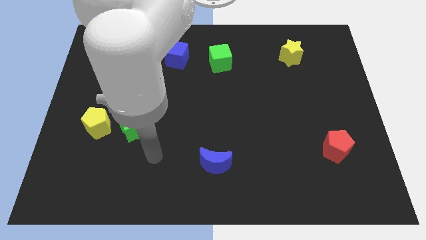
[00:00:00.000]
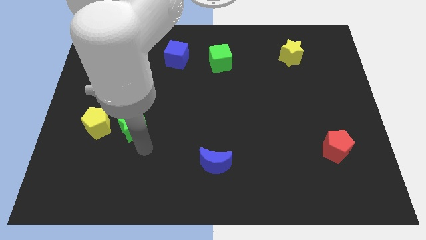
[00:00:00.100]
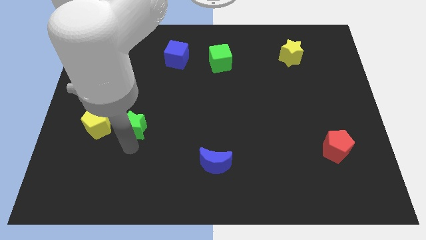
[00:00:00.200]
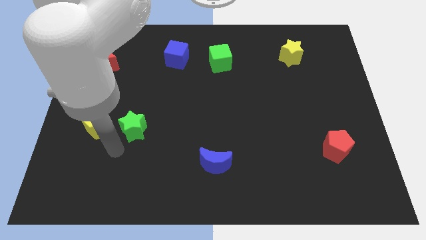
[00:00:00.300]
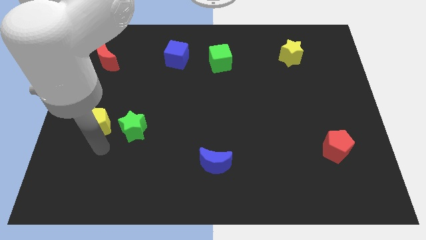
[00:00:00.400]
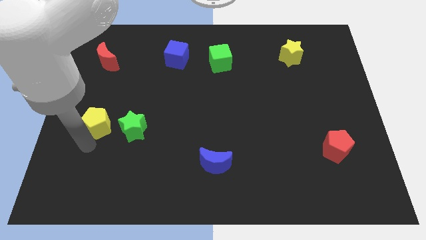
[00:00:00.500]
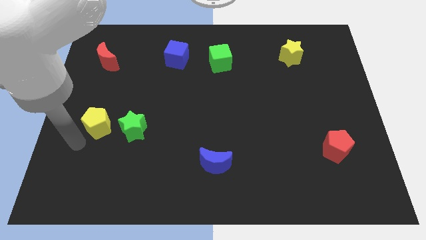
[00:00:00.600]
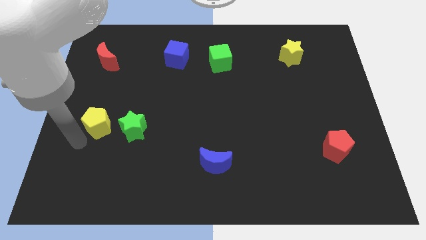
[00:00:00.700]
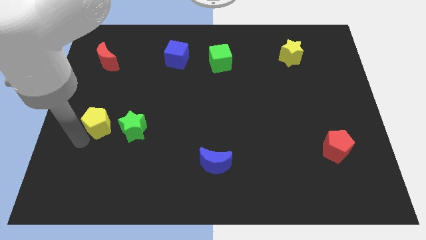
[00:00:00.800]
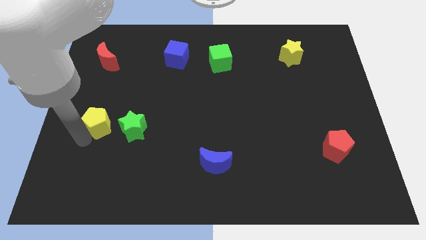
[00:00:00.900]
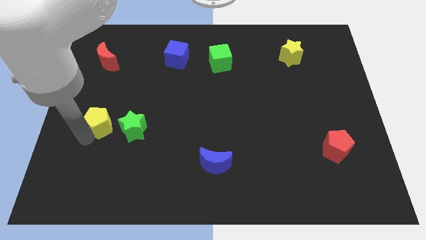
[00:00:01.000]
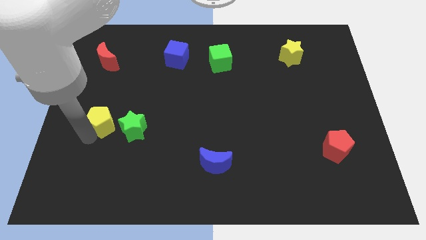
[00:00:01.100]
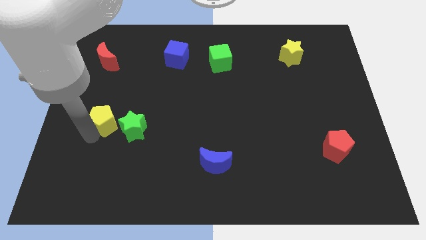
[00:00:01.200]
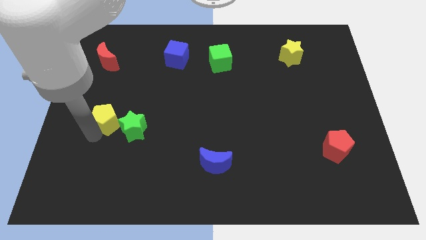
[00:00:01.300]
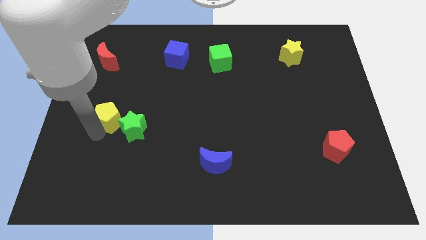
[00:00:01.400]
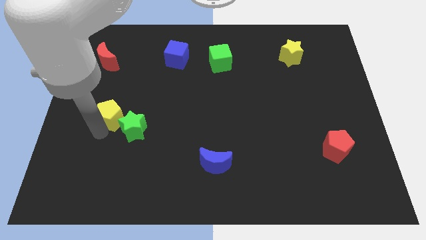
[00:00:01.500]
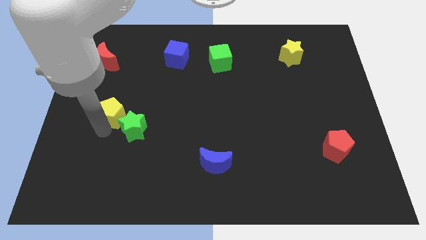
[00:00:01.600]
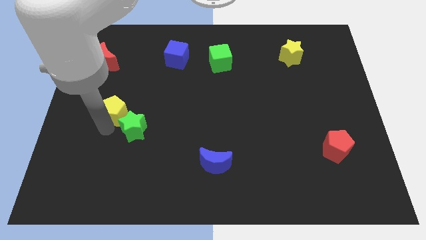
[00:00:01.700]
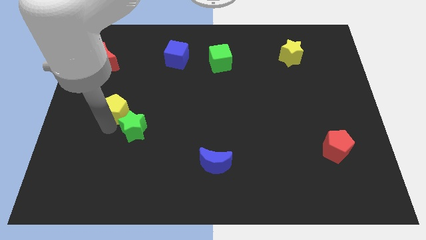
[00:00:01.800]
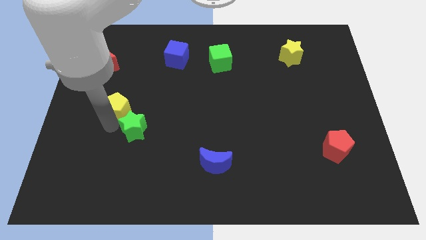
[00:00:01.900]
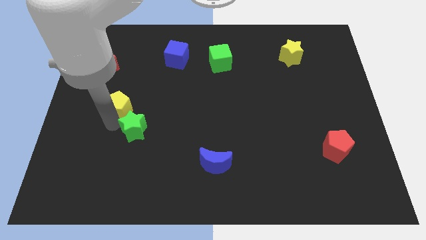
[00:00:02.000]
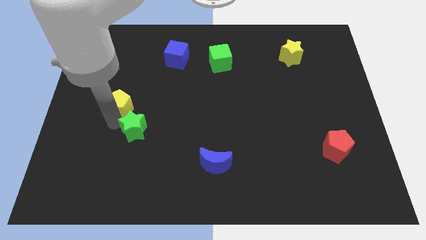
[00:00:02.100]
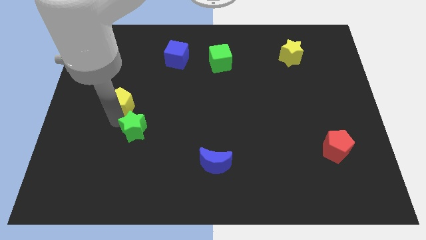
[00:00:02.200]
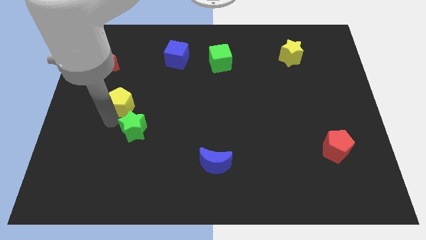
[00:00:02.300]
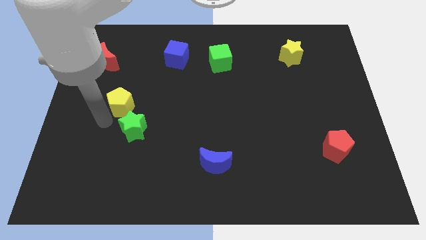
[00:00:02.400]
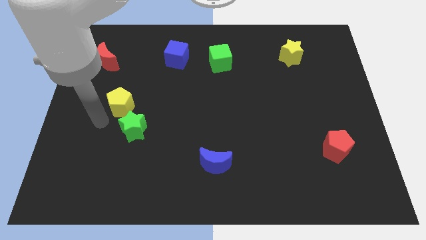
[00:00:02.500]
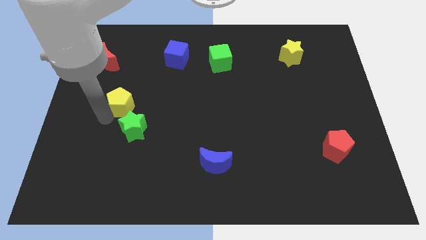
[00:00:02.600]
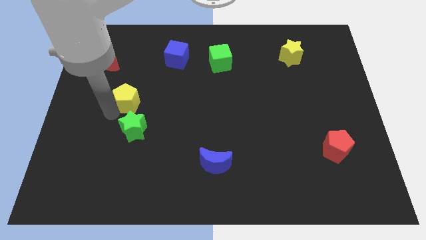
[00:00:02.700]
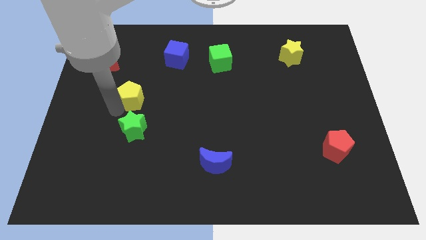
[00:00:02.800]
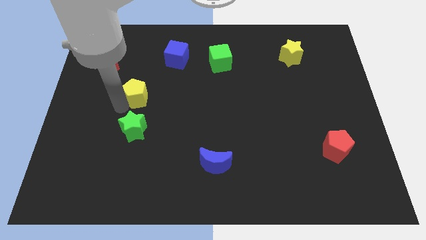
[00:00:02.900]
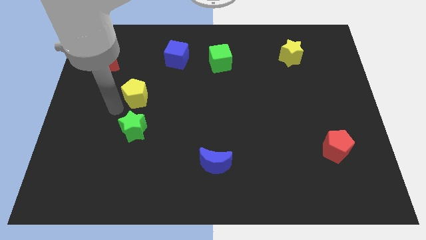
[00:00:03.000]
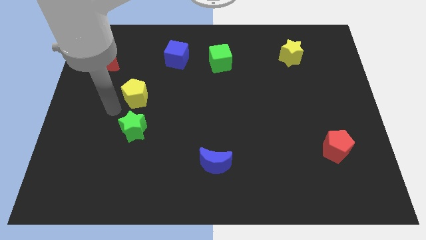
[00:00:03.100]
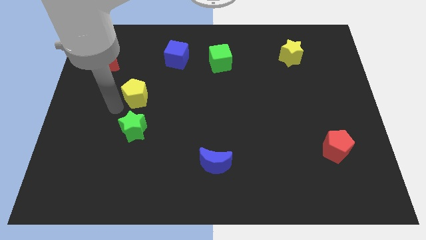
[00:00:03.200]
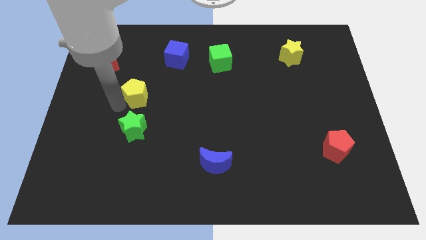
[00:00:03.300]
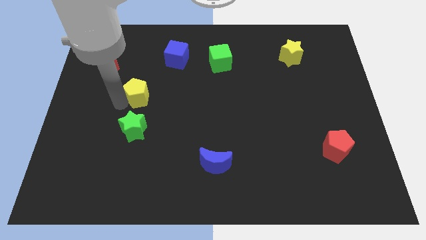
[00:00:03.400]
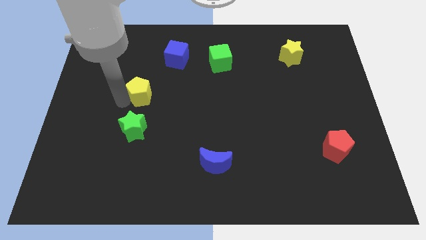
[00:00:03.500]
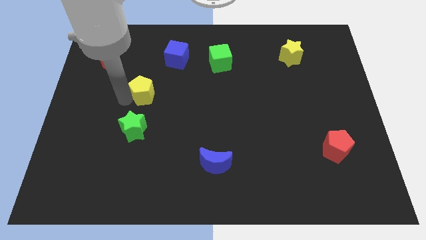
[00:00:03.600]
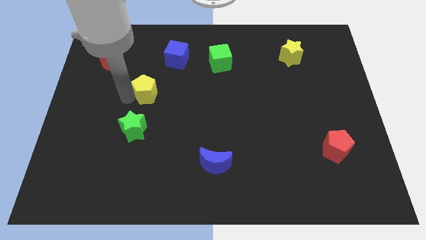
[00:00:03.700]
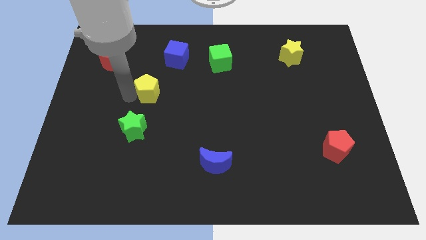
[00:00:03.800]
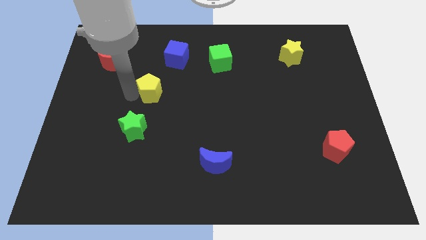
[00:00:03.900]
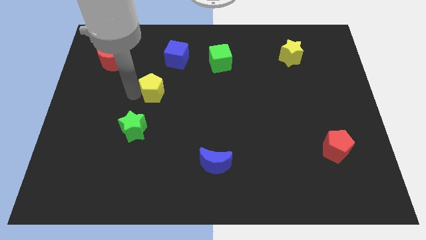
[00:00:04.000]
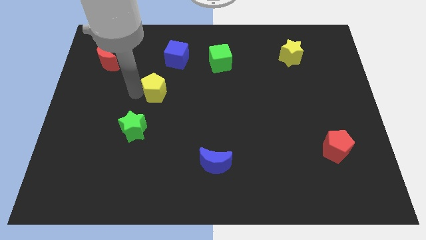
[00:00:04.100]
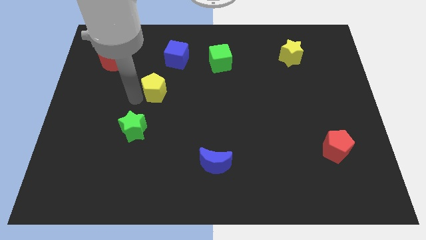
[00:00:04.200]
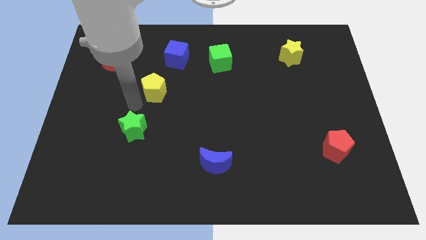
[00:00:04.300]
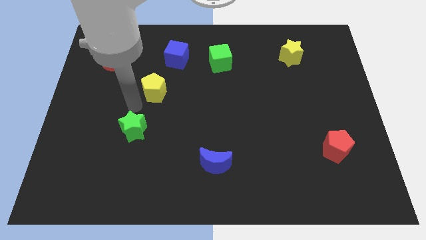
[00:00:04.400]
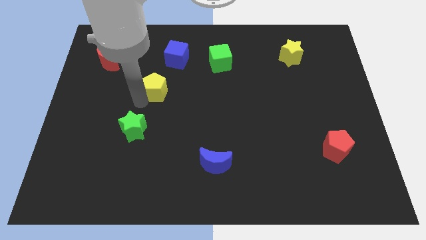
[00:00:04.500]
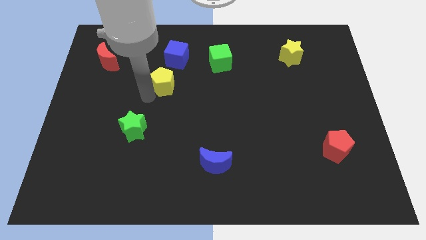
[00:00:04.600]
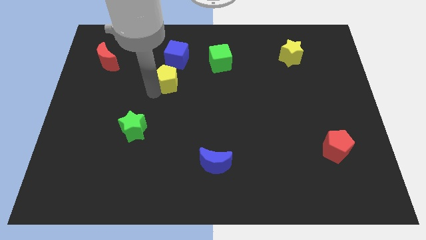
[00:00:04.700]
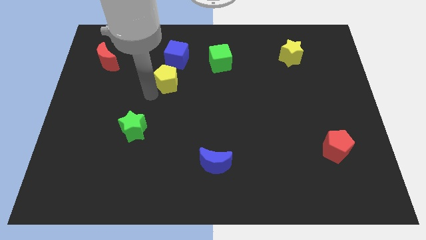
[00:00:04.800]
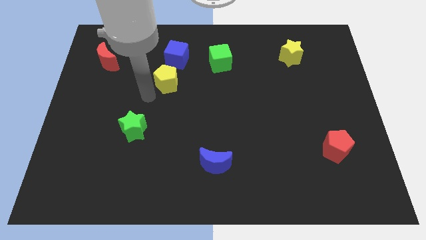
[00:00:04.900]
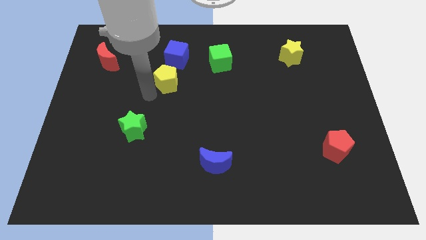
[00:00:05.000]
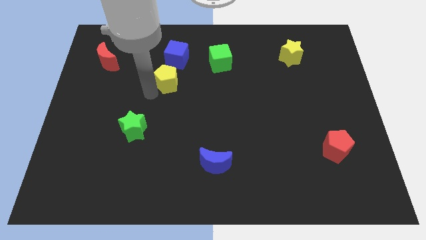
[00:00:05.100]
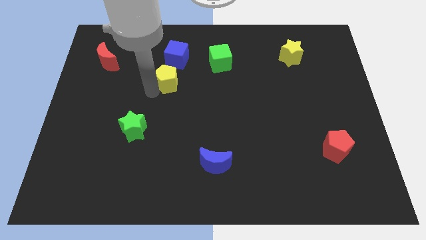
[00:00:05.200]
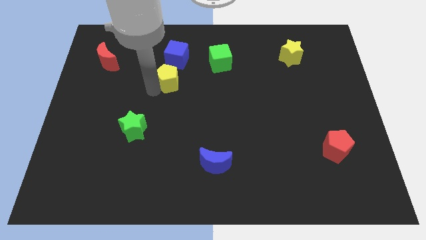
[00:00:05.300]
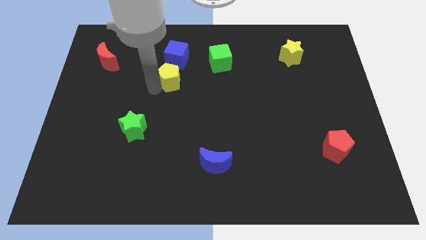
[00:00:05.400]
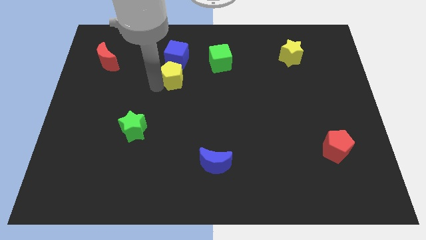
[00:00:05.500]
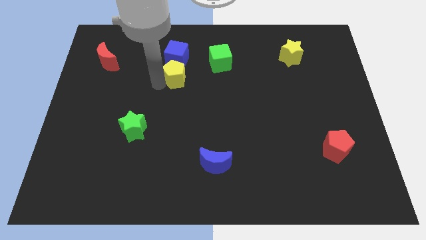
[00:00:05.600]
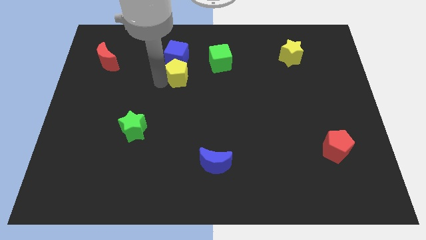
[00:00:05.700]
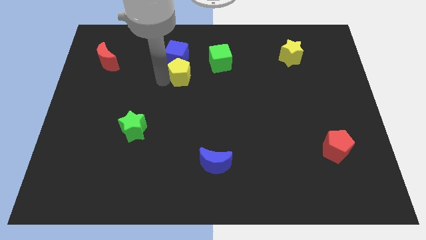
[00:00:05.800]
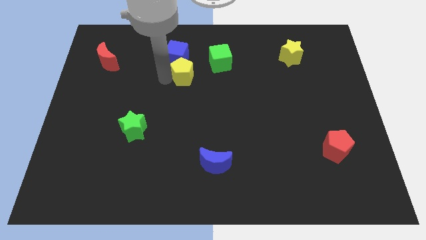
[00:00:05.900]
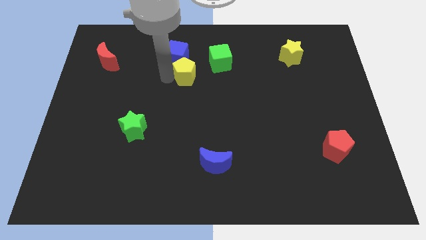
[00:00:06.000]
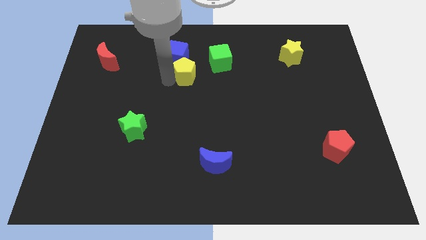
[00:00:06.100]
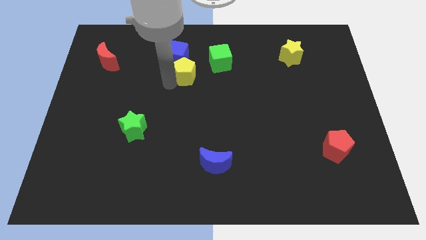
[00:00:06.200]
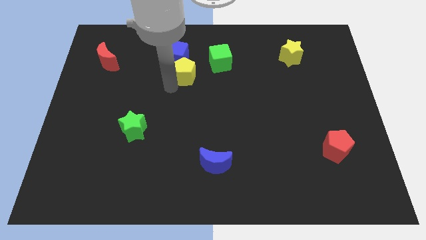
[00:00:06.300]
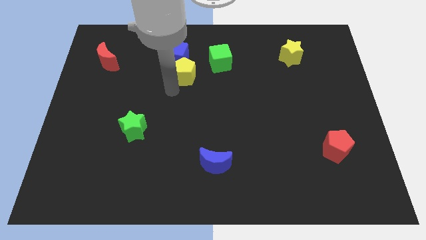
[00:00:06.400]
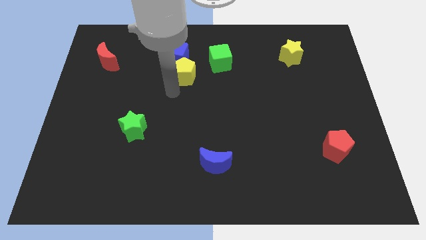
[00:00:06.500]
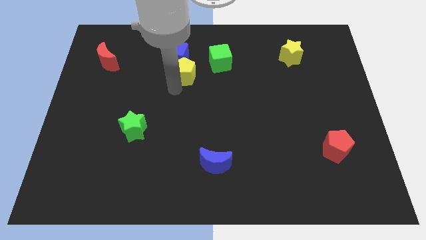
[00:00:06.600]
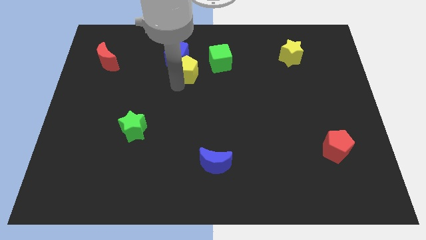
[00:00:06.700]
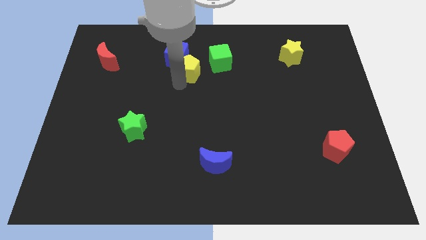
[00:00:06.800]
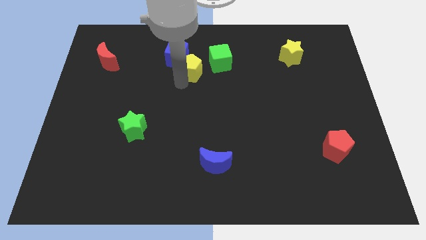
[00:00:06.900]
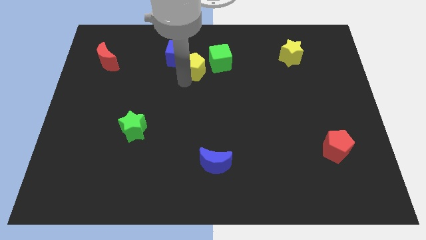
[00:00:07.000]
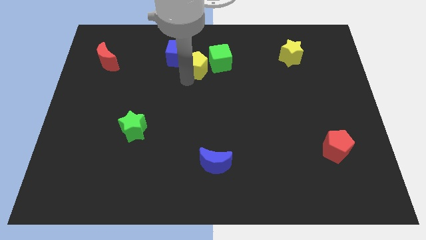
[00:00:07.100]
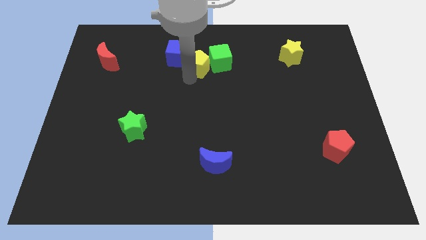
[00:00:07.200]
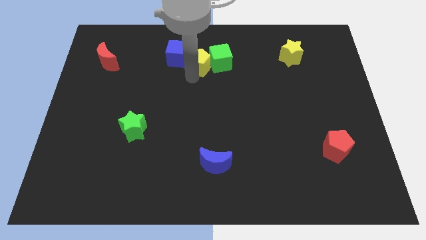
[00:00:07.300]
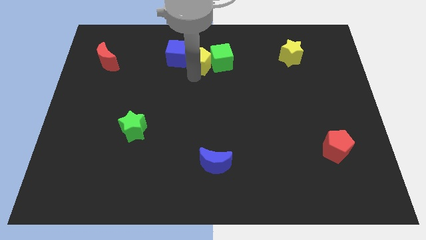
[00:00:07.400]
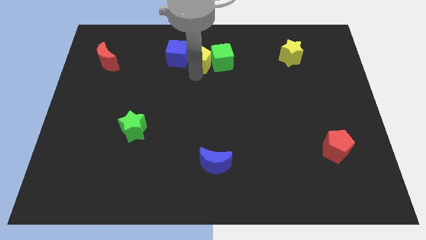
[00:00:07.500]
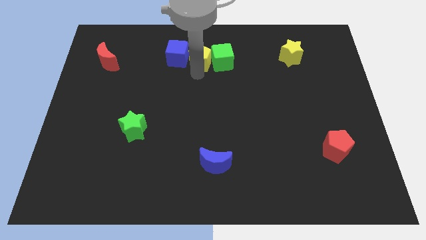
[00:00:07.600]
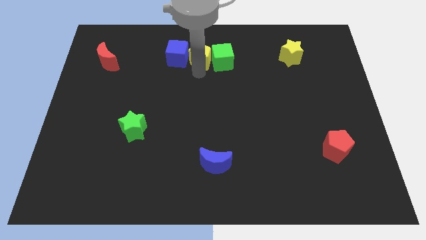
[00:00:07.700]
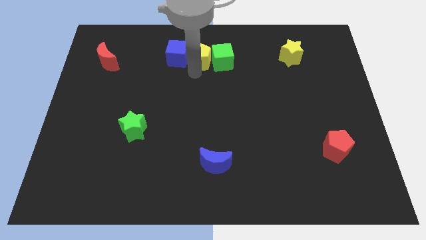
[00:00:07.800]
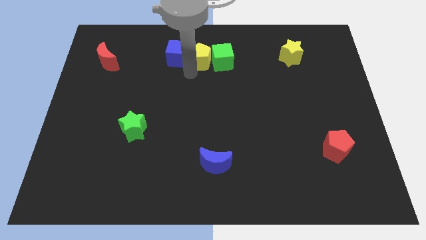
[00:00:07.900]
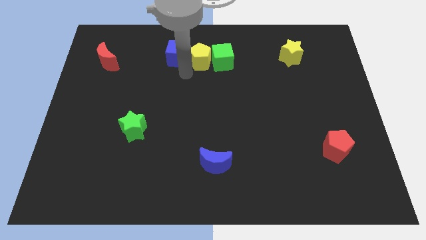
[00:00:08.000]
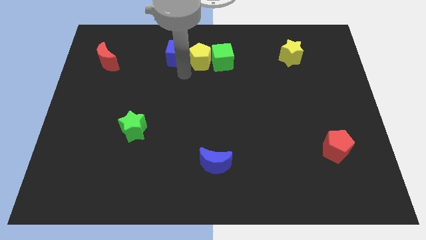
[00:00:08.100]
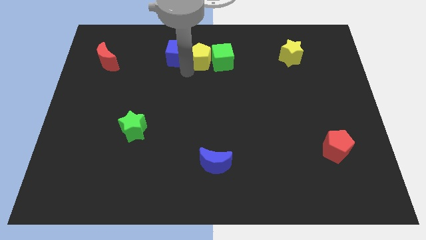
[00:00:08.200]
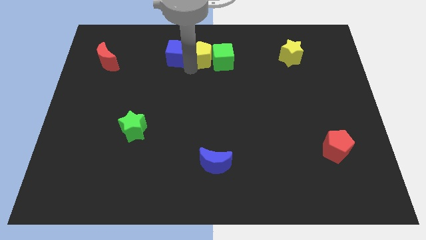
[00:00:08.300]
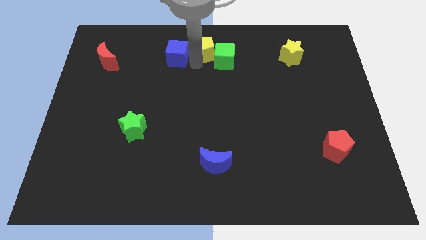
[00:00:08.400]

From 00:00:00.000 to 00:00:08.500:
move the yellow pentagon to the towards your base
